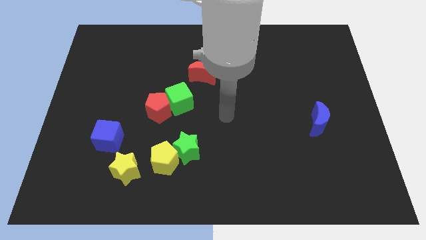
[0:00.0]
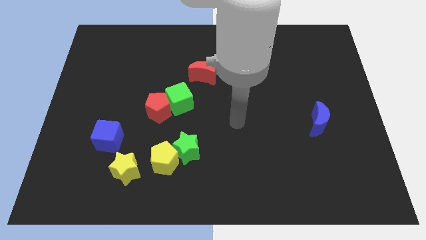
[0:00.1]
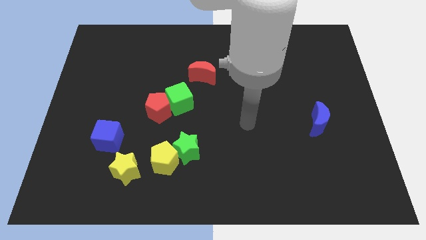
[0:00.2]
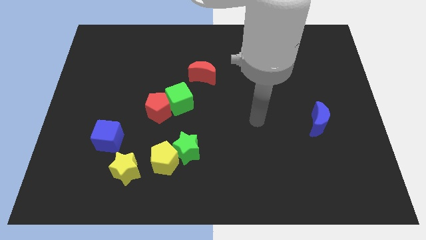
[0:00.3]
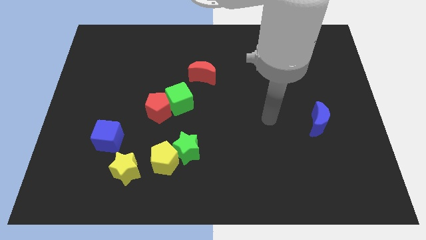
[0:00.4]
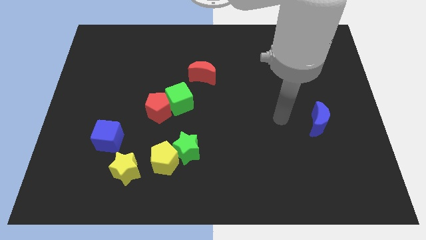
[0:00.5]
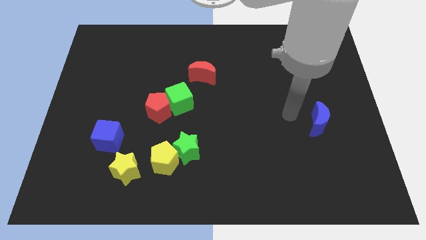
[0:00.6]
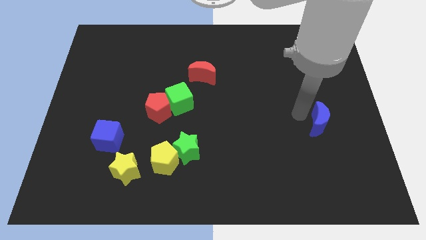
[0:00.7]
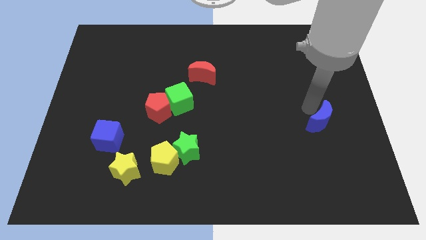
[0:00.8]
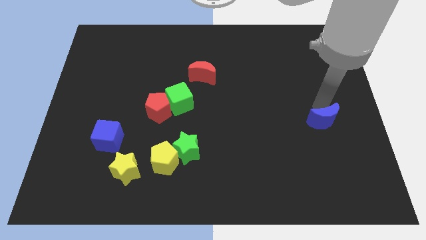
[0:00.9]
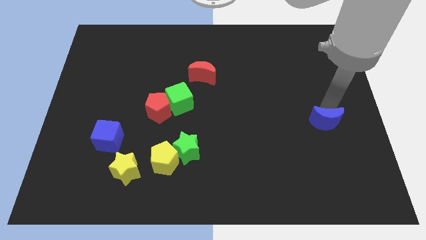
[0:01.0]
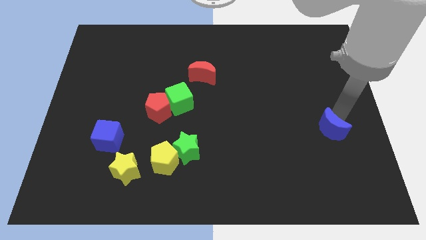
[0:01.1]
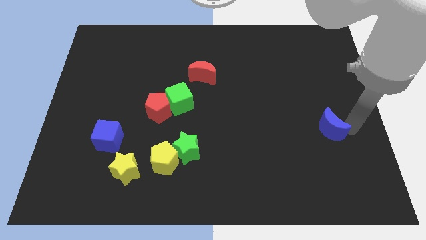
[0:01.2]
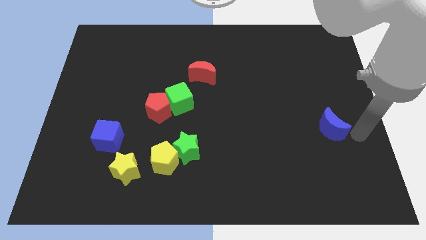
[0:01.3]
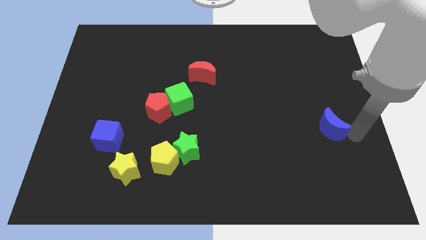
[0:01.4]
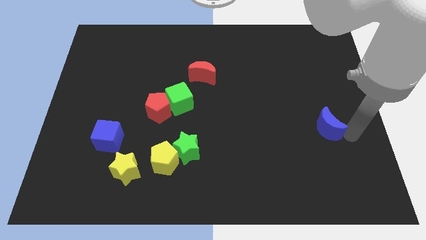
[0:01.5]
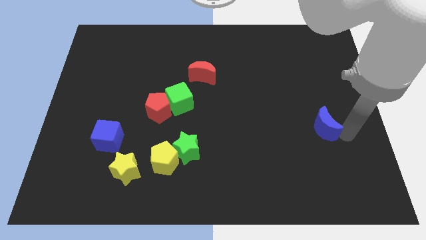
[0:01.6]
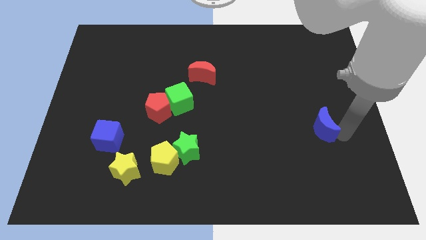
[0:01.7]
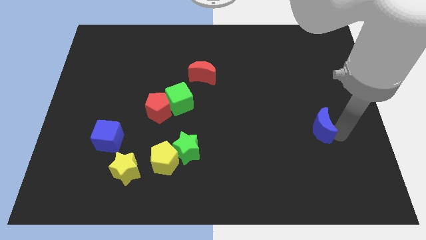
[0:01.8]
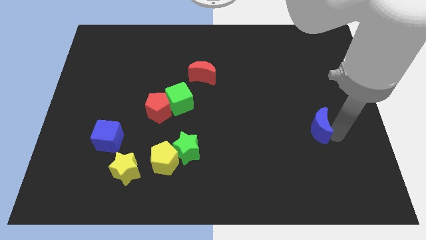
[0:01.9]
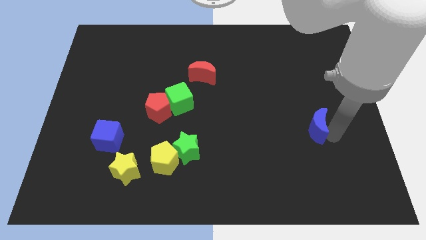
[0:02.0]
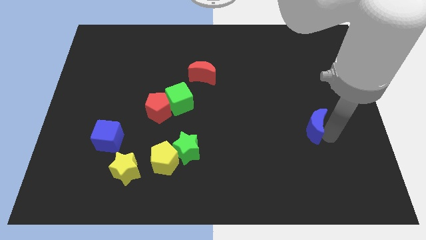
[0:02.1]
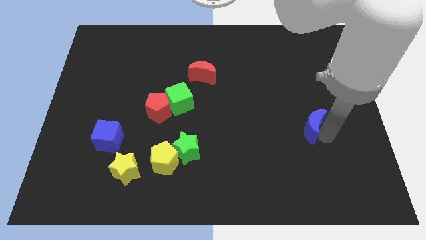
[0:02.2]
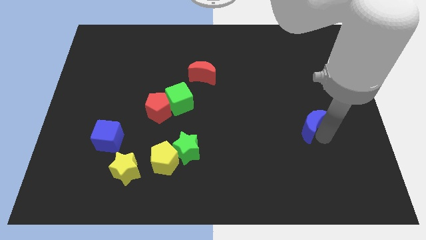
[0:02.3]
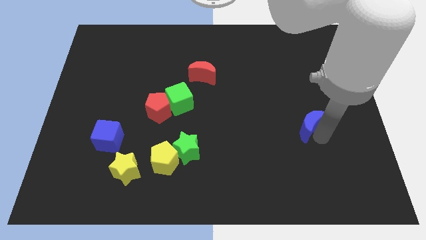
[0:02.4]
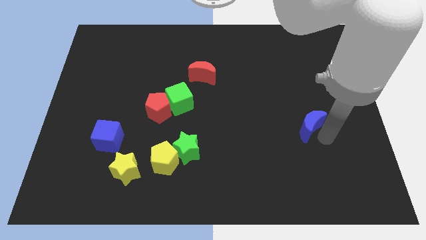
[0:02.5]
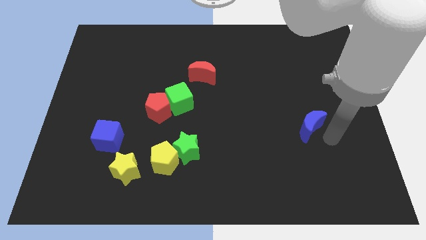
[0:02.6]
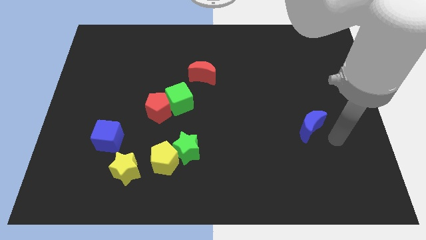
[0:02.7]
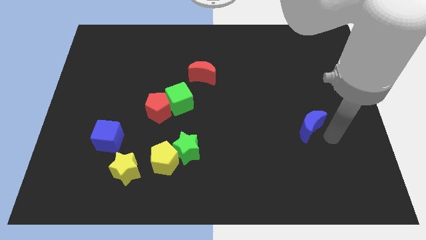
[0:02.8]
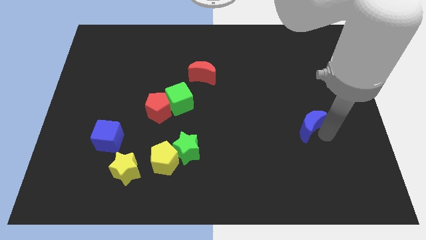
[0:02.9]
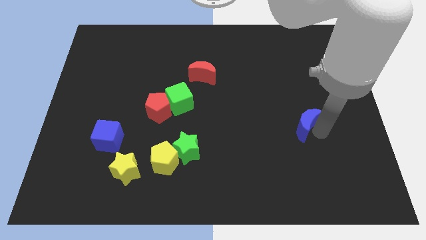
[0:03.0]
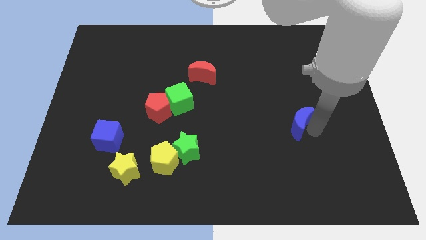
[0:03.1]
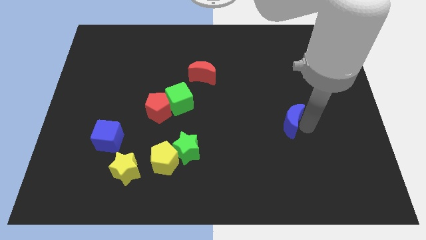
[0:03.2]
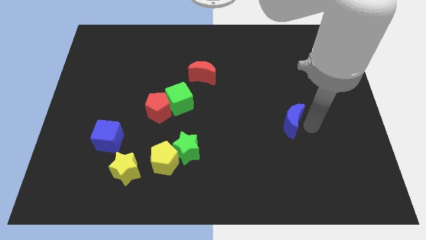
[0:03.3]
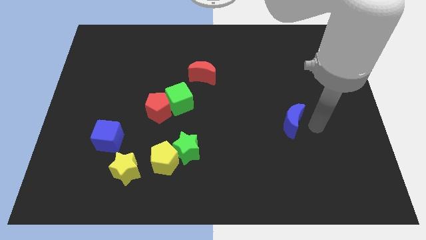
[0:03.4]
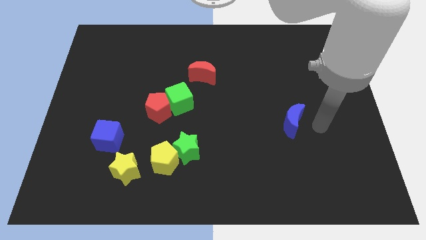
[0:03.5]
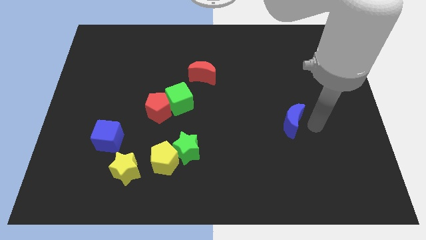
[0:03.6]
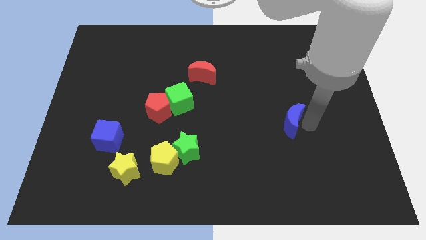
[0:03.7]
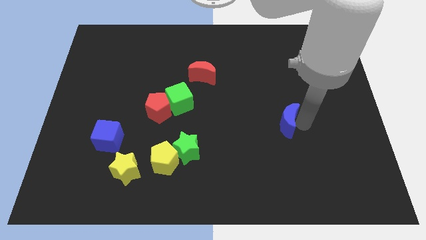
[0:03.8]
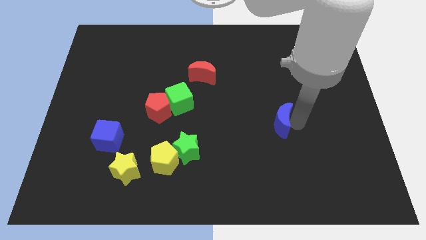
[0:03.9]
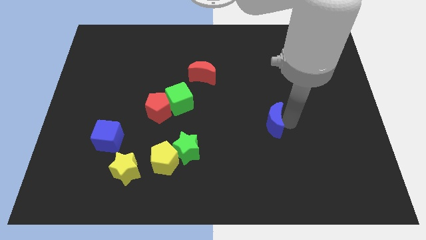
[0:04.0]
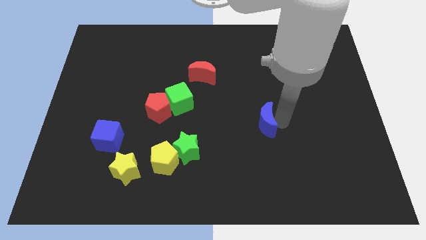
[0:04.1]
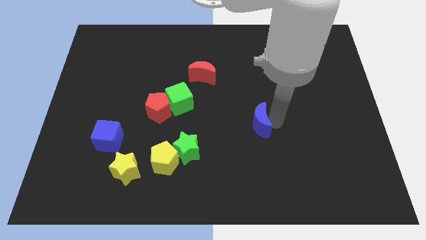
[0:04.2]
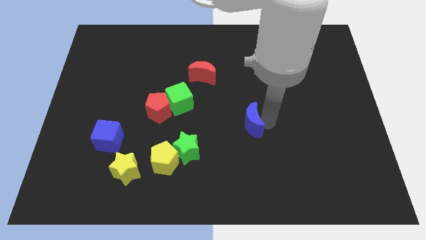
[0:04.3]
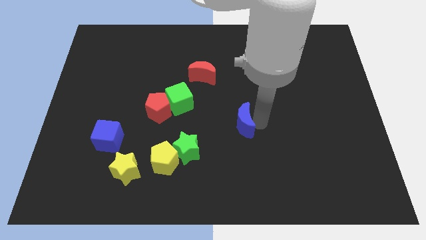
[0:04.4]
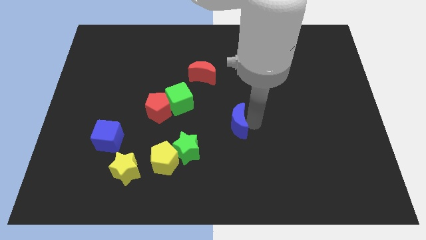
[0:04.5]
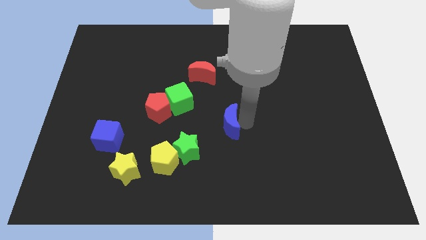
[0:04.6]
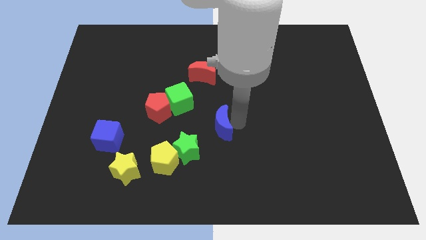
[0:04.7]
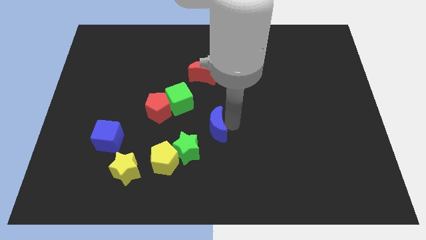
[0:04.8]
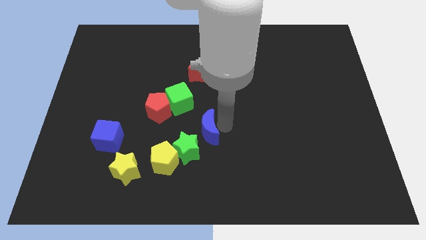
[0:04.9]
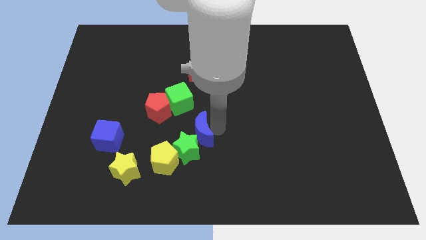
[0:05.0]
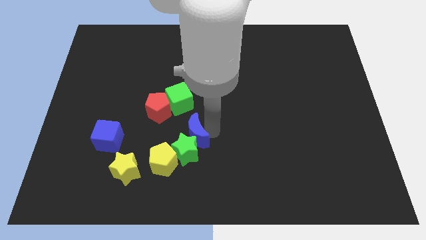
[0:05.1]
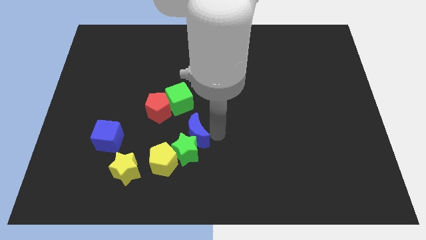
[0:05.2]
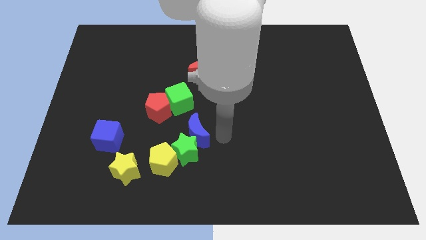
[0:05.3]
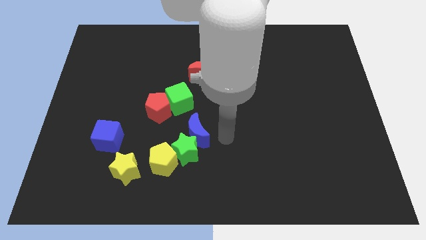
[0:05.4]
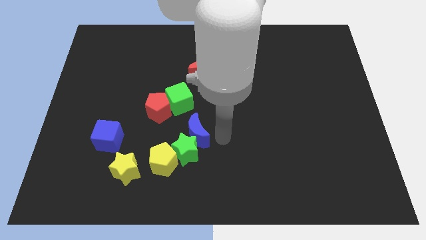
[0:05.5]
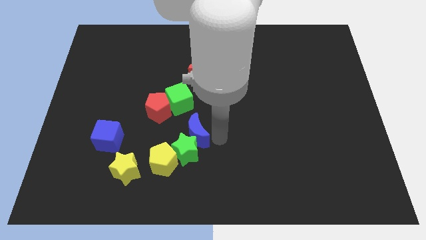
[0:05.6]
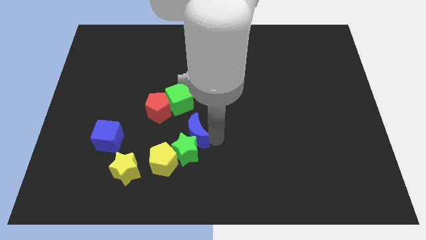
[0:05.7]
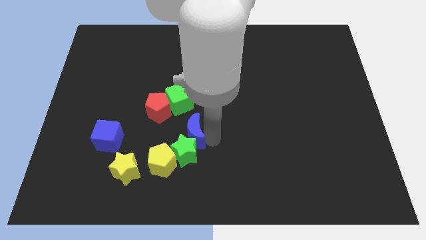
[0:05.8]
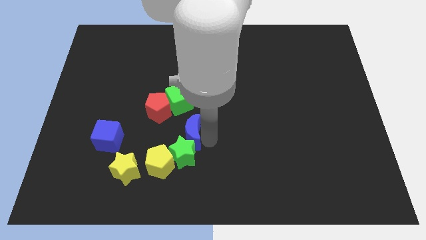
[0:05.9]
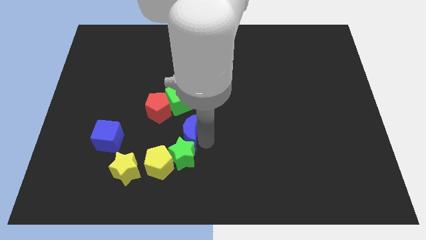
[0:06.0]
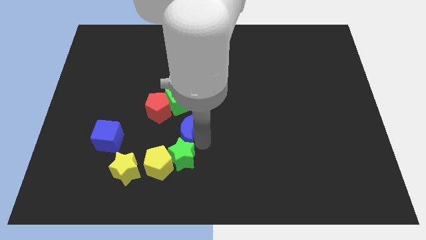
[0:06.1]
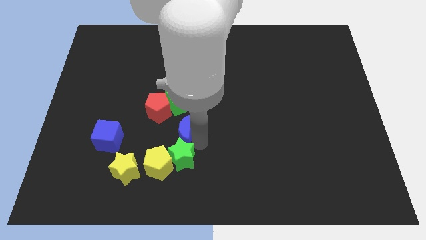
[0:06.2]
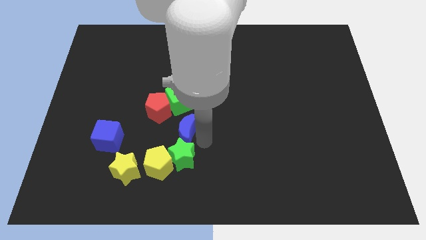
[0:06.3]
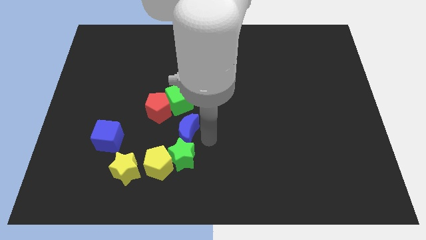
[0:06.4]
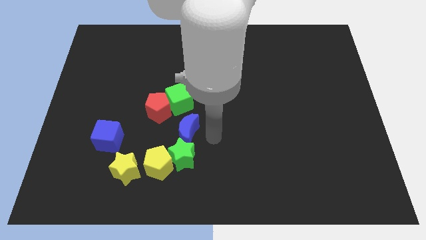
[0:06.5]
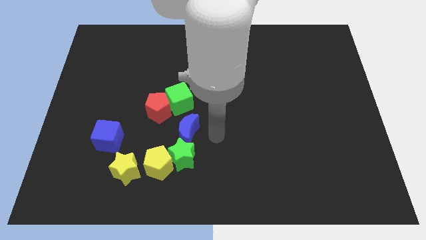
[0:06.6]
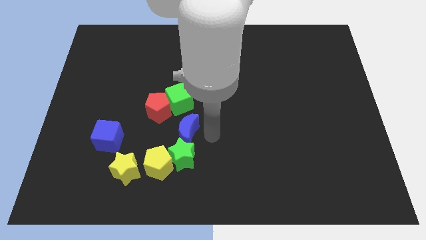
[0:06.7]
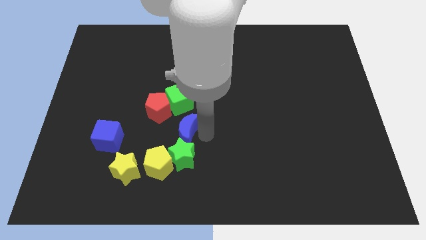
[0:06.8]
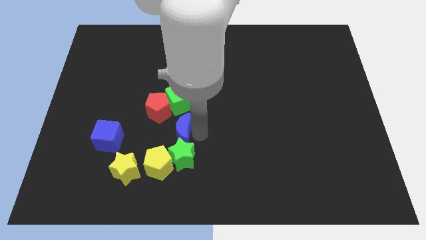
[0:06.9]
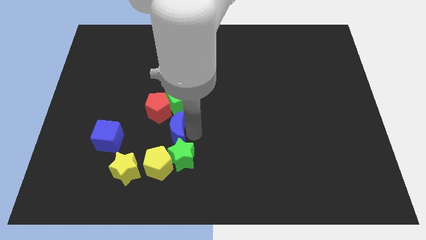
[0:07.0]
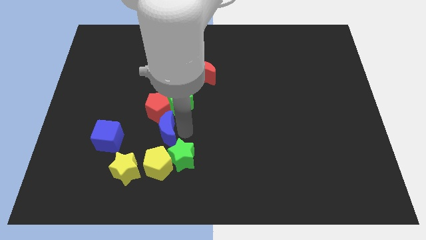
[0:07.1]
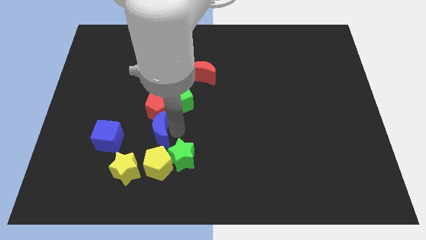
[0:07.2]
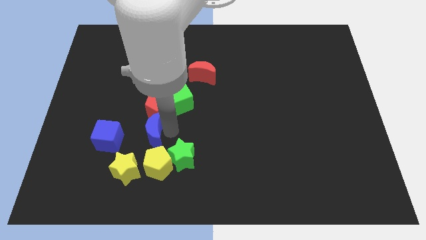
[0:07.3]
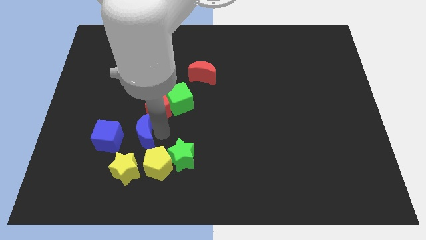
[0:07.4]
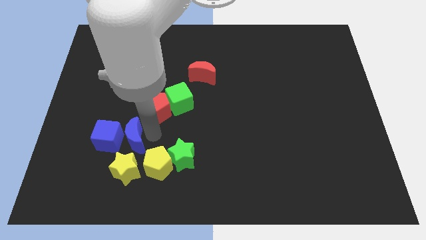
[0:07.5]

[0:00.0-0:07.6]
push the blue moon to the blue cube
